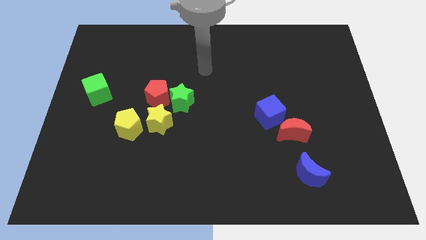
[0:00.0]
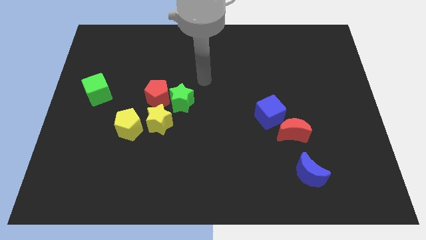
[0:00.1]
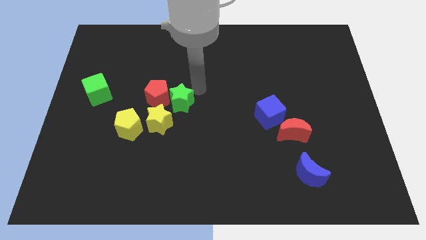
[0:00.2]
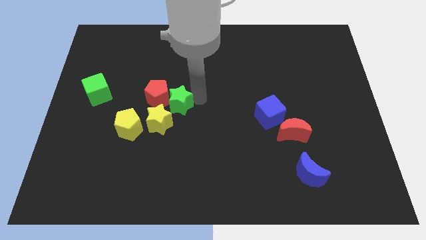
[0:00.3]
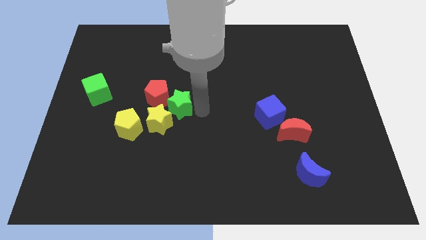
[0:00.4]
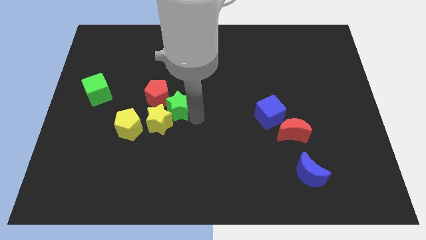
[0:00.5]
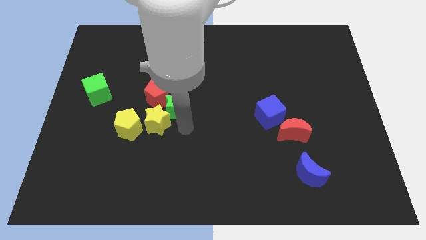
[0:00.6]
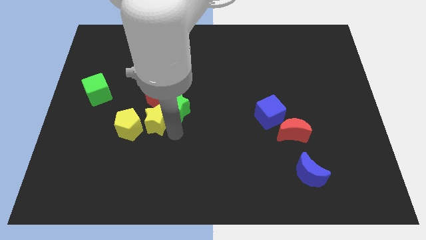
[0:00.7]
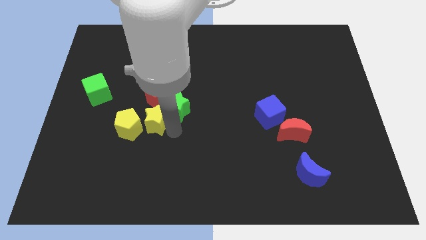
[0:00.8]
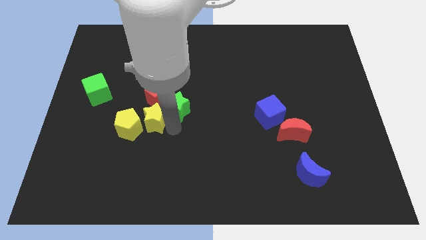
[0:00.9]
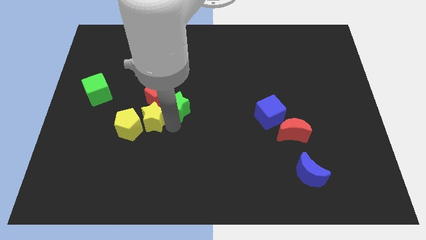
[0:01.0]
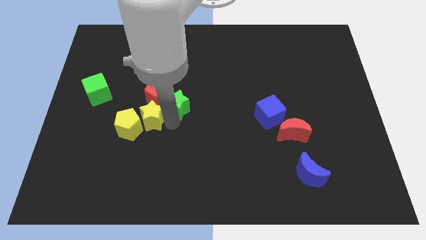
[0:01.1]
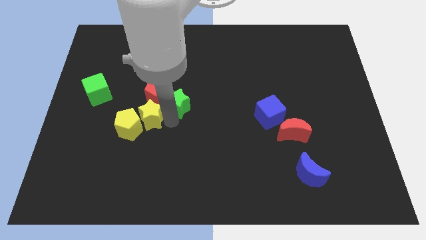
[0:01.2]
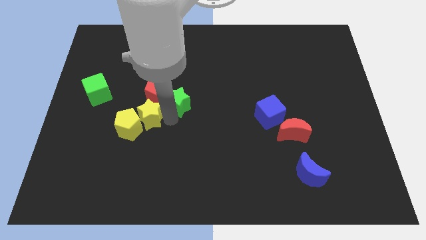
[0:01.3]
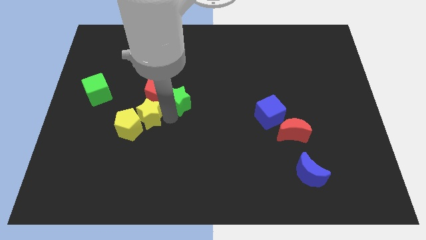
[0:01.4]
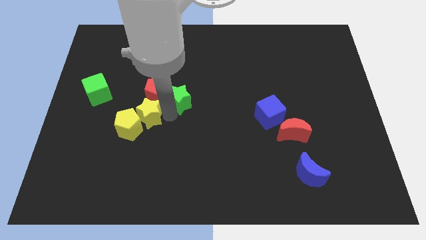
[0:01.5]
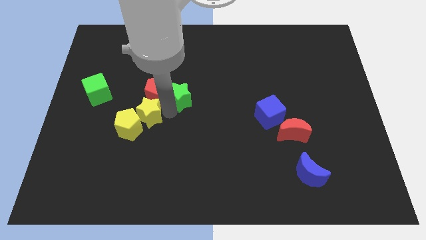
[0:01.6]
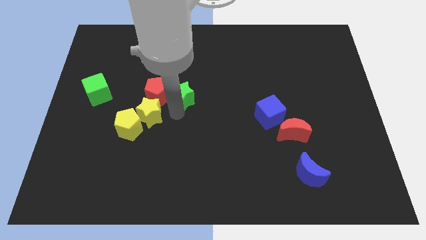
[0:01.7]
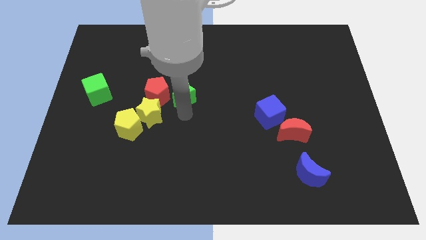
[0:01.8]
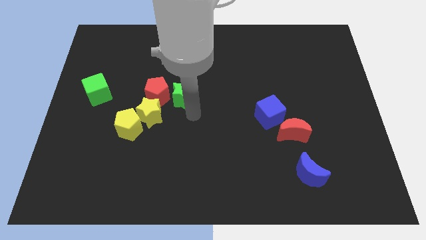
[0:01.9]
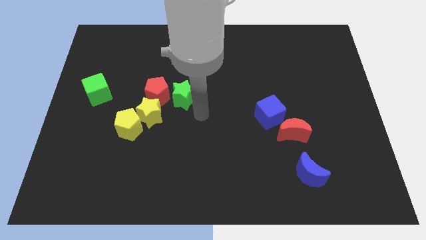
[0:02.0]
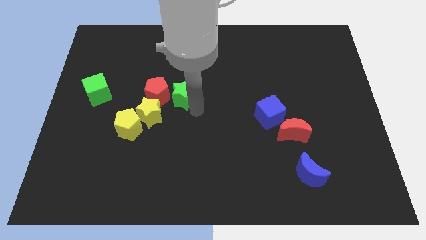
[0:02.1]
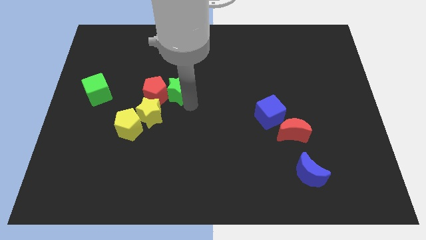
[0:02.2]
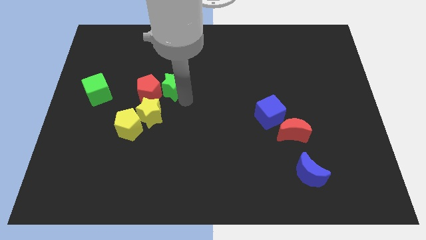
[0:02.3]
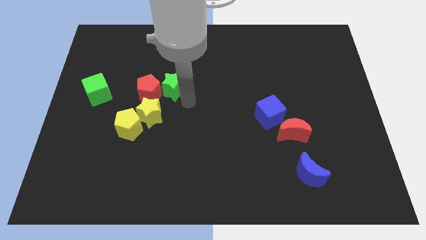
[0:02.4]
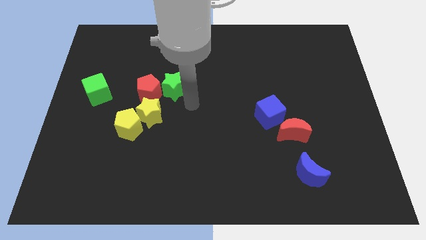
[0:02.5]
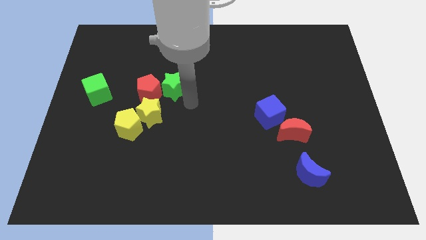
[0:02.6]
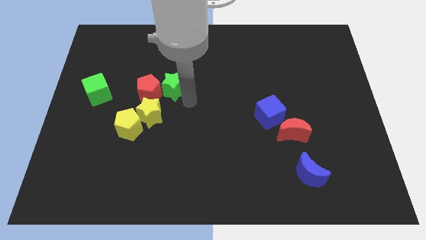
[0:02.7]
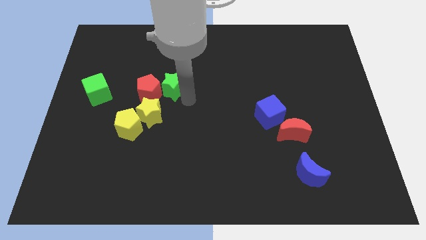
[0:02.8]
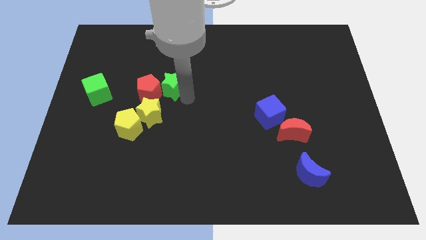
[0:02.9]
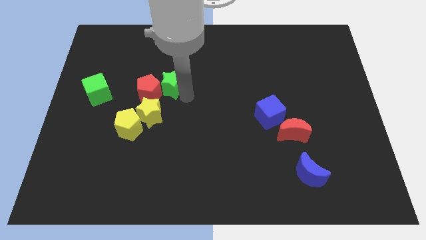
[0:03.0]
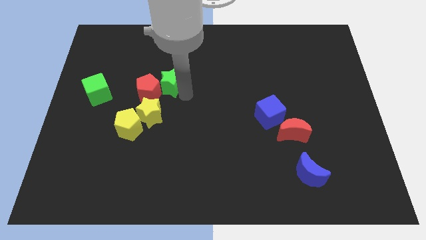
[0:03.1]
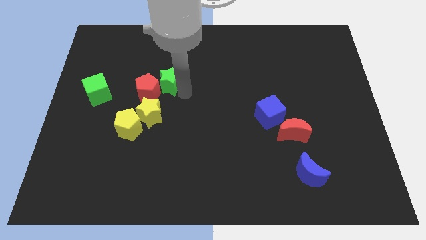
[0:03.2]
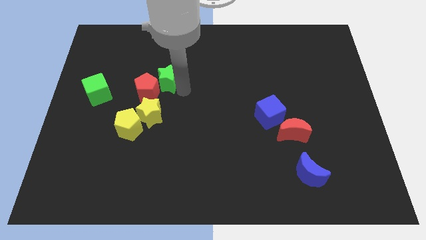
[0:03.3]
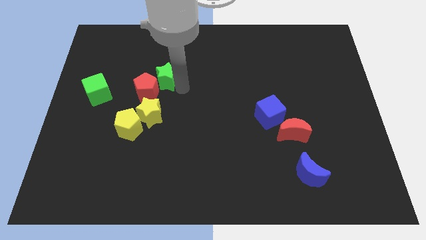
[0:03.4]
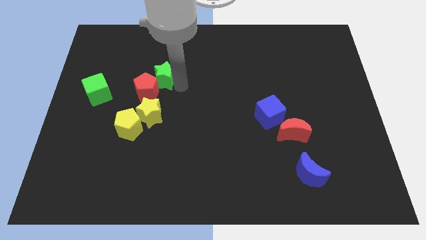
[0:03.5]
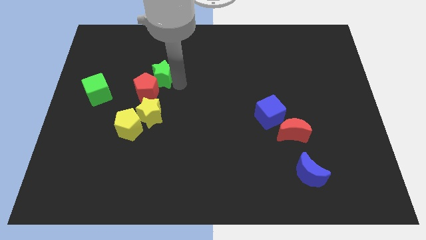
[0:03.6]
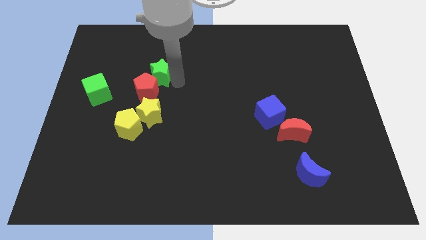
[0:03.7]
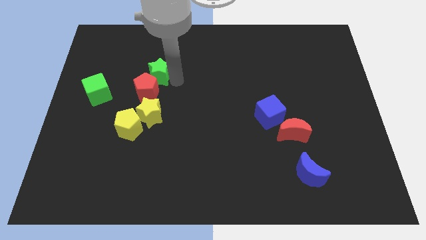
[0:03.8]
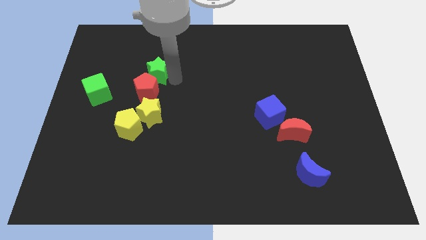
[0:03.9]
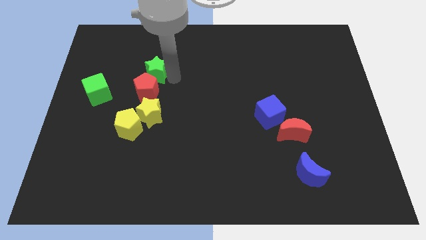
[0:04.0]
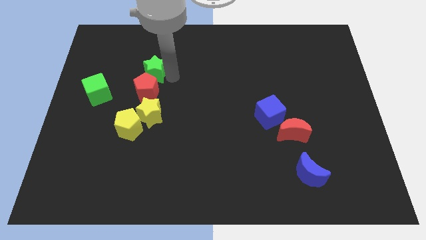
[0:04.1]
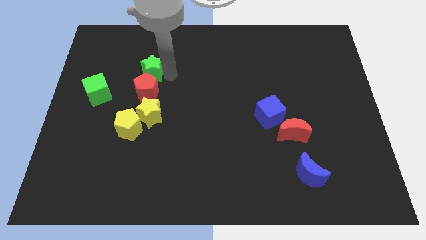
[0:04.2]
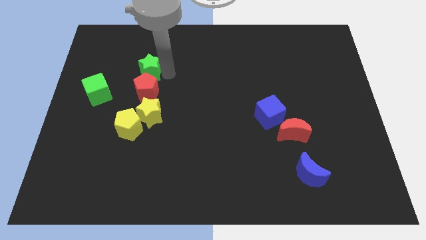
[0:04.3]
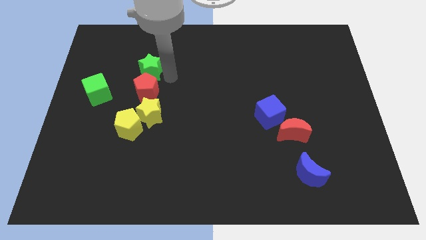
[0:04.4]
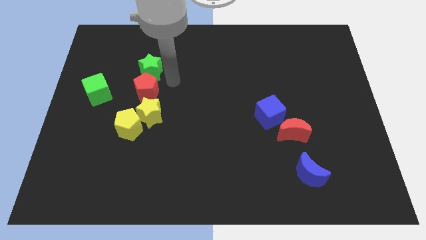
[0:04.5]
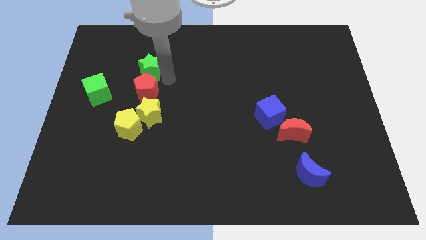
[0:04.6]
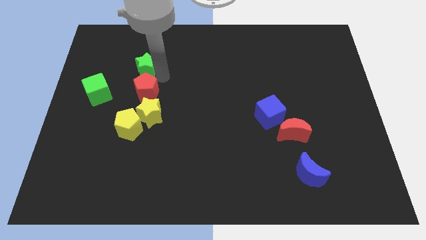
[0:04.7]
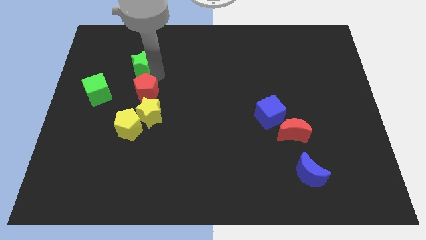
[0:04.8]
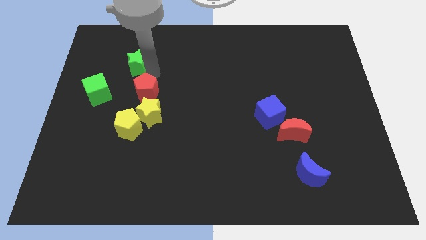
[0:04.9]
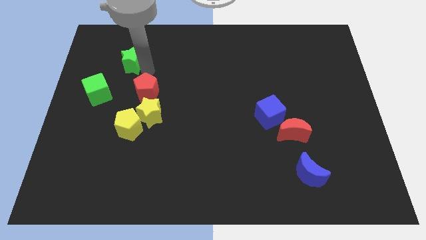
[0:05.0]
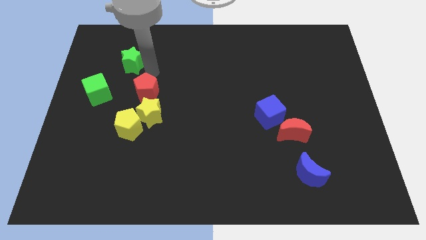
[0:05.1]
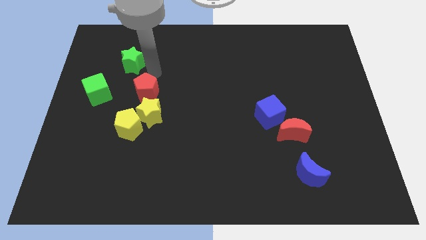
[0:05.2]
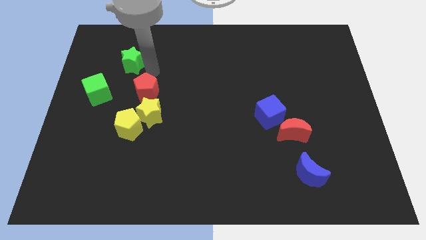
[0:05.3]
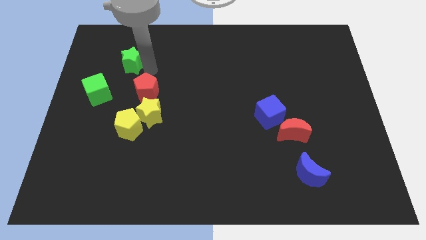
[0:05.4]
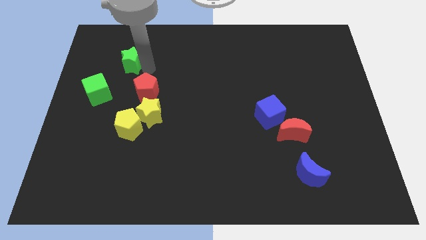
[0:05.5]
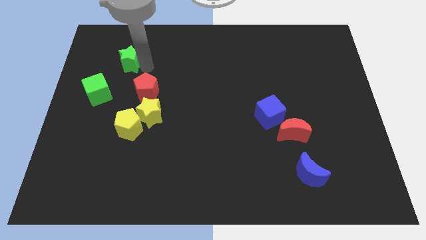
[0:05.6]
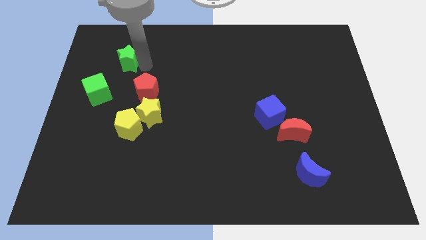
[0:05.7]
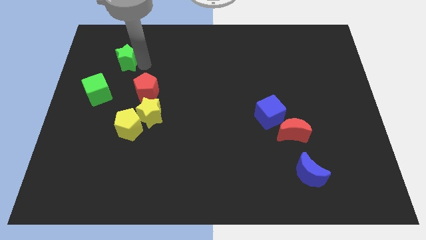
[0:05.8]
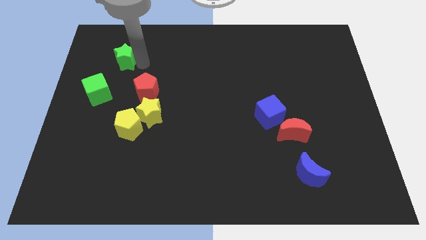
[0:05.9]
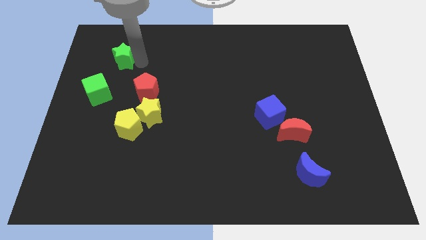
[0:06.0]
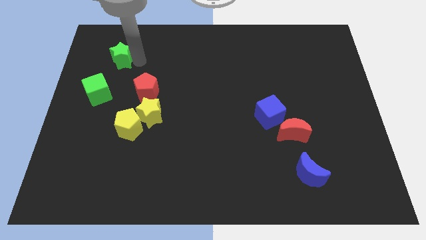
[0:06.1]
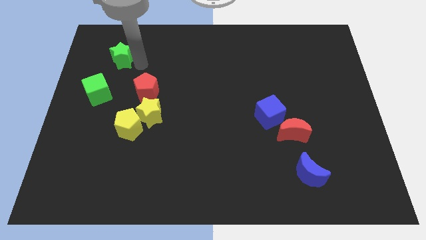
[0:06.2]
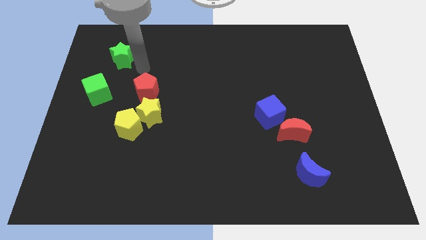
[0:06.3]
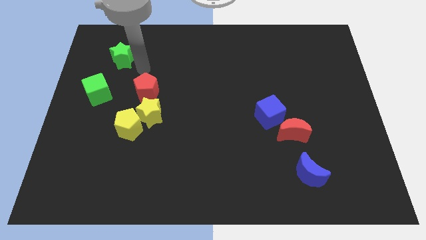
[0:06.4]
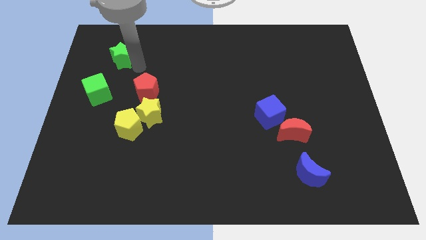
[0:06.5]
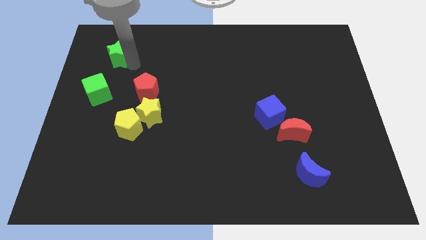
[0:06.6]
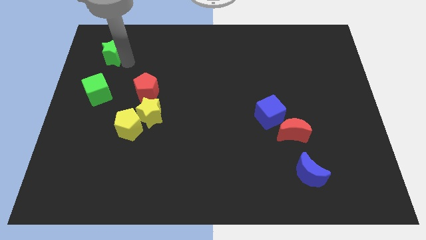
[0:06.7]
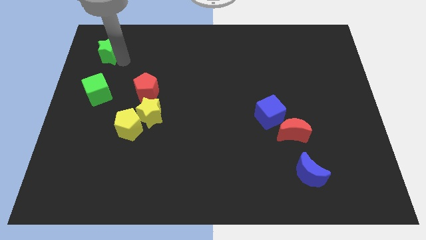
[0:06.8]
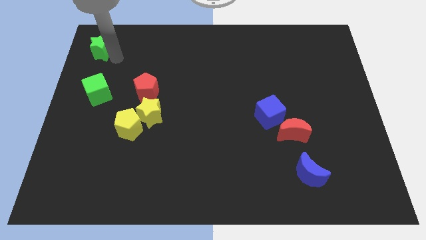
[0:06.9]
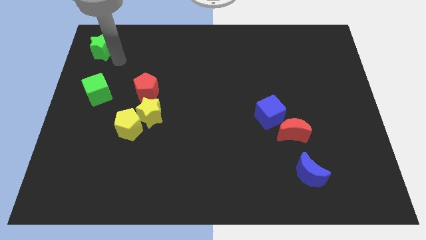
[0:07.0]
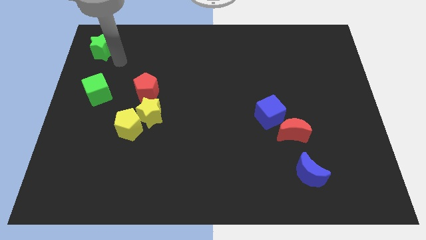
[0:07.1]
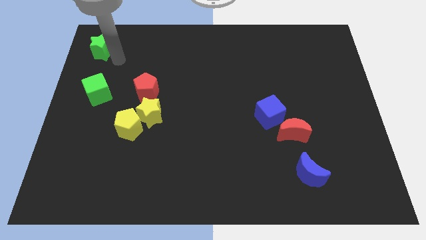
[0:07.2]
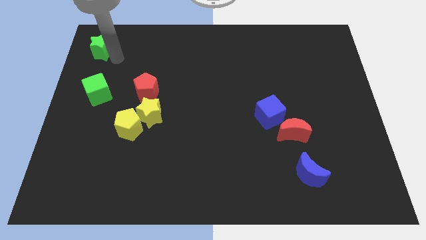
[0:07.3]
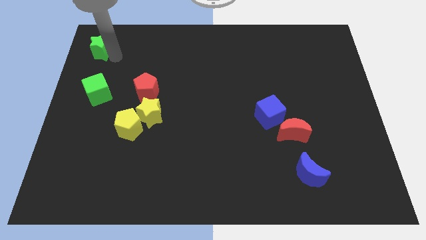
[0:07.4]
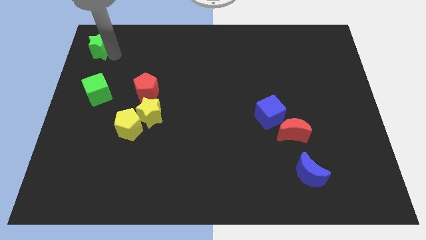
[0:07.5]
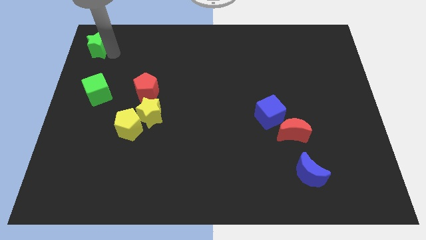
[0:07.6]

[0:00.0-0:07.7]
push the green star to the top left
